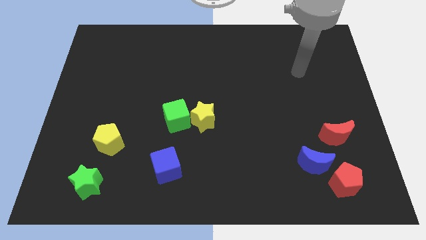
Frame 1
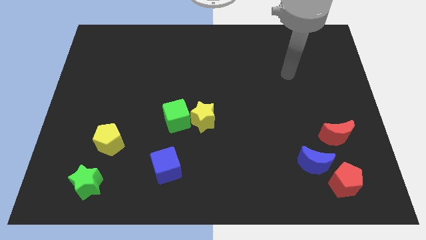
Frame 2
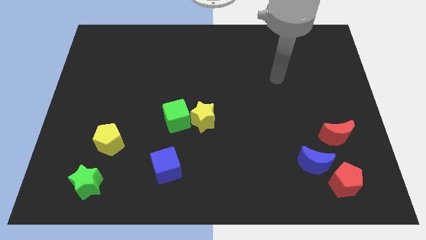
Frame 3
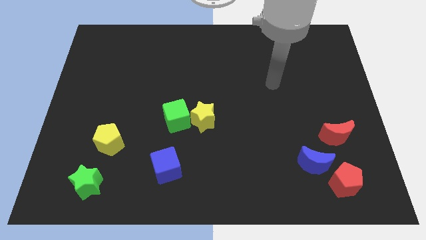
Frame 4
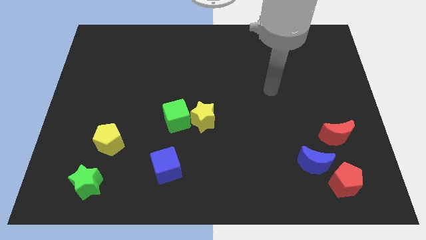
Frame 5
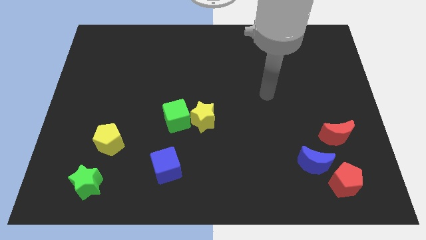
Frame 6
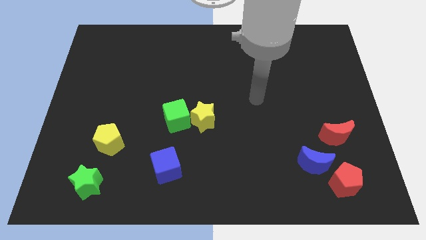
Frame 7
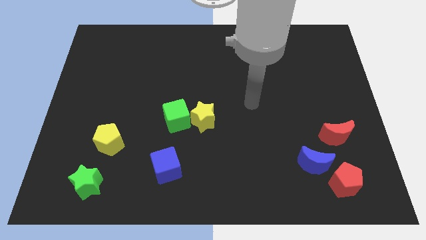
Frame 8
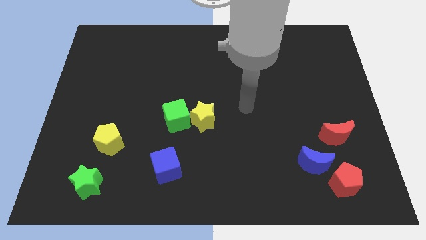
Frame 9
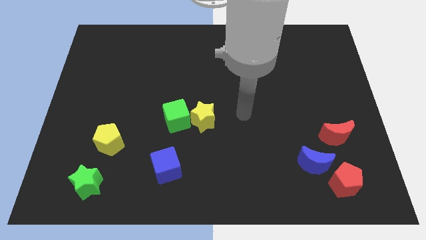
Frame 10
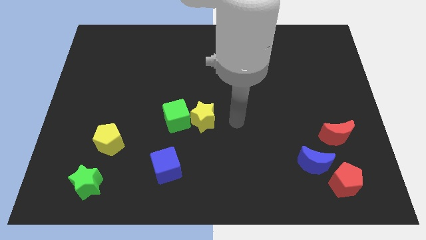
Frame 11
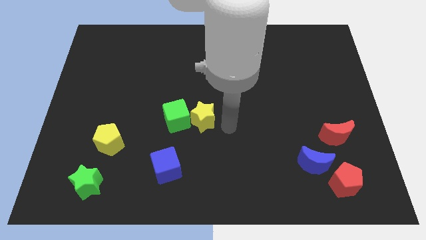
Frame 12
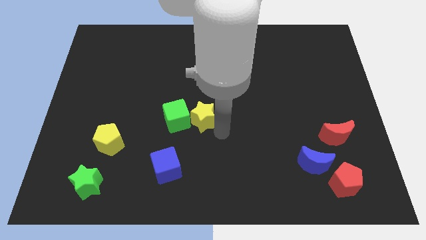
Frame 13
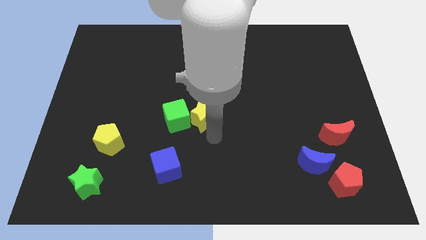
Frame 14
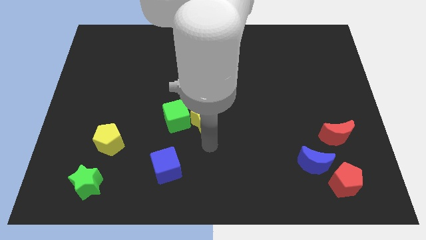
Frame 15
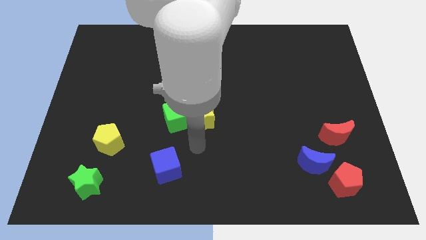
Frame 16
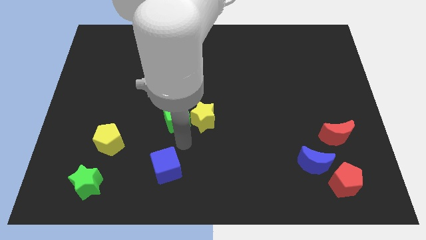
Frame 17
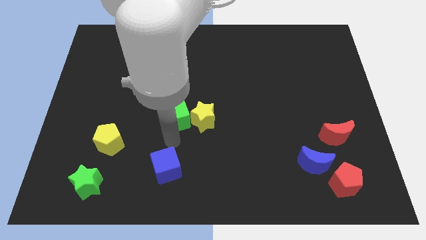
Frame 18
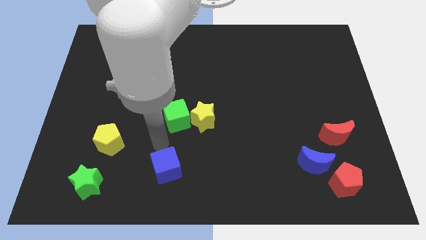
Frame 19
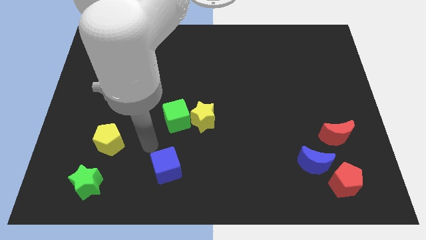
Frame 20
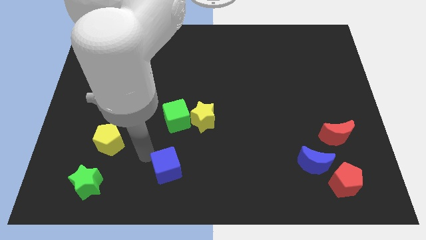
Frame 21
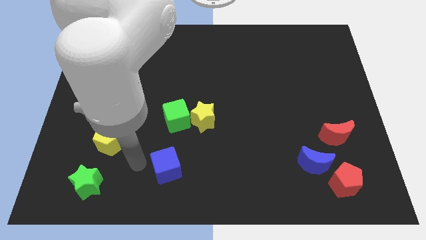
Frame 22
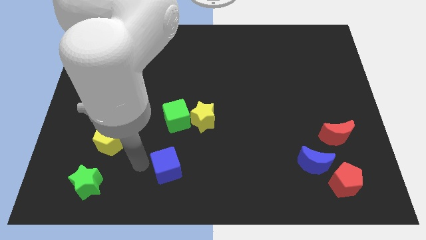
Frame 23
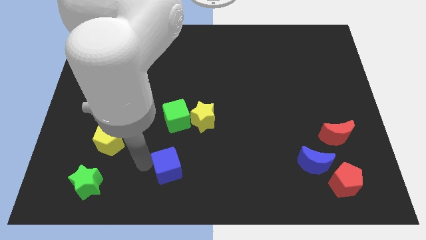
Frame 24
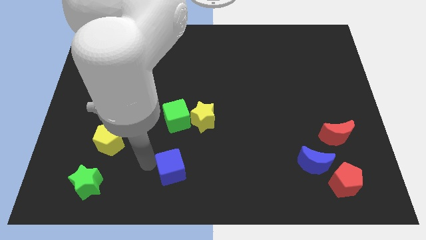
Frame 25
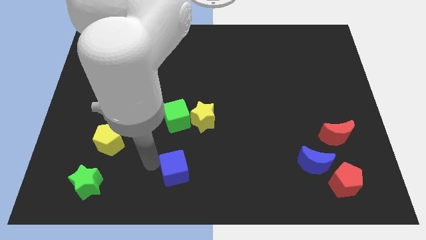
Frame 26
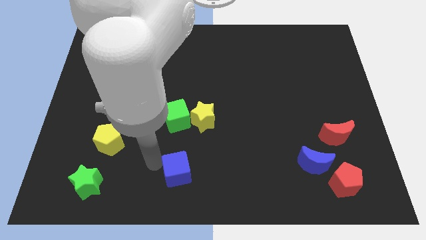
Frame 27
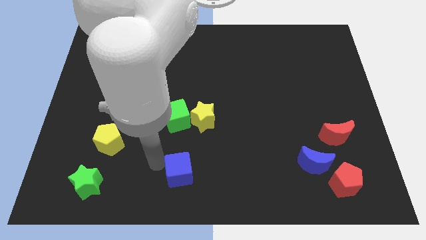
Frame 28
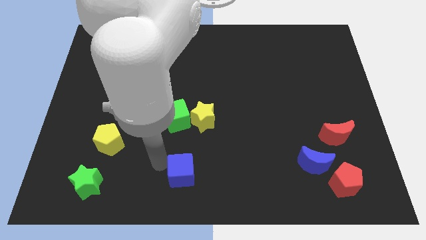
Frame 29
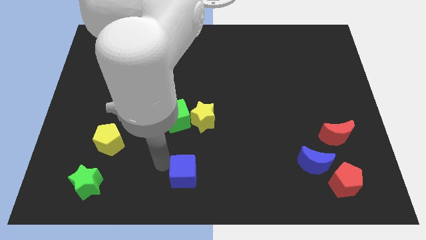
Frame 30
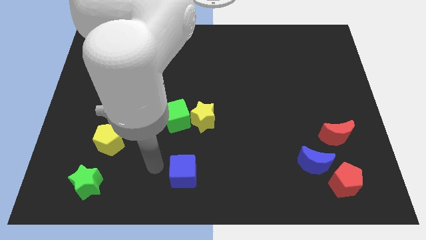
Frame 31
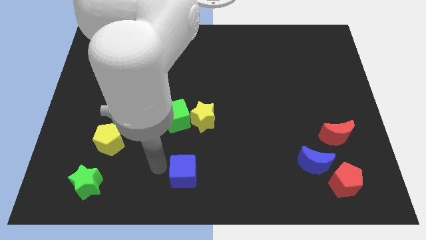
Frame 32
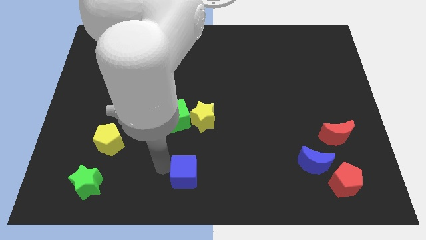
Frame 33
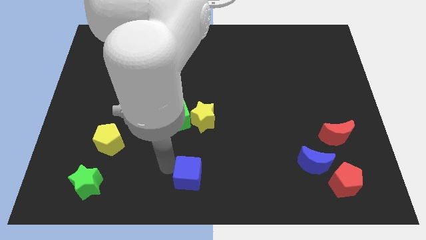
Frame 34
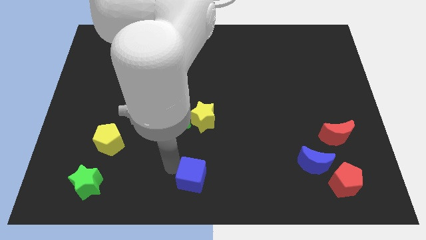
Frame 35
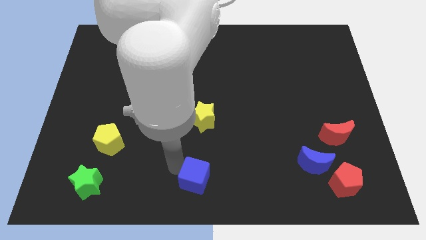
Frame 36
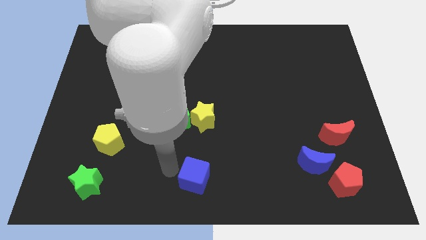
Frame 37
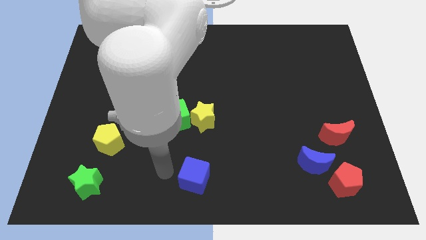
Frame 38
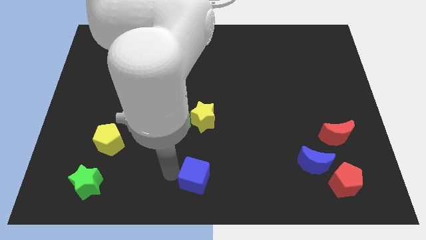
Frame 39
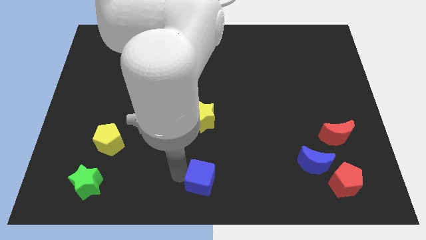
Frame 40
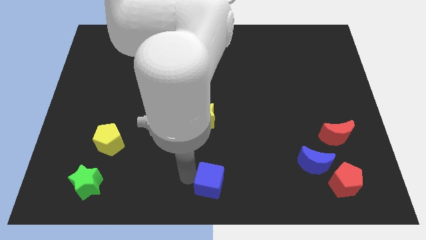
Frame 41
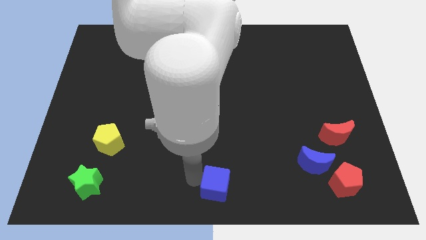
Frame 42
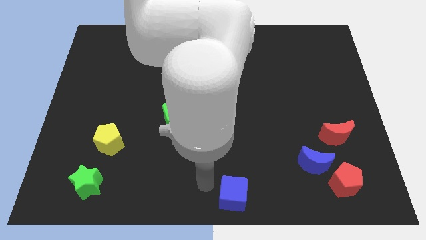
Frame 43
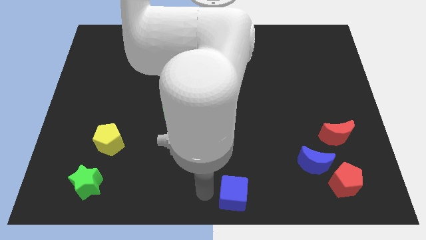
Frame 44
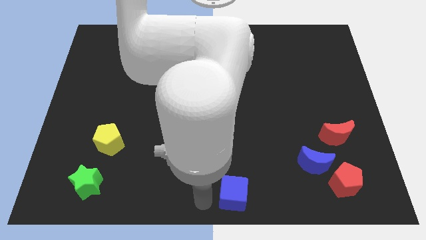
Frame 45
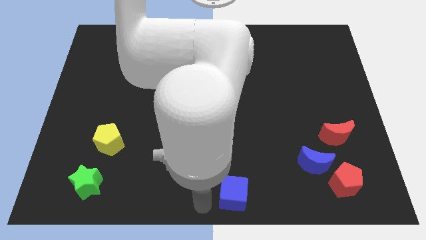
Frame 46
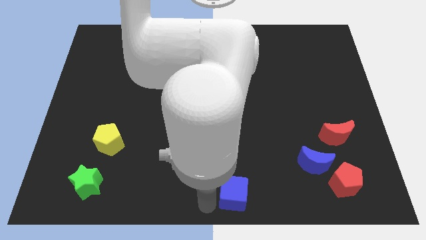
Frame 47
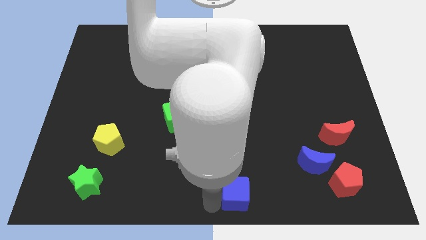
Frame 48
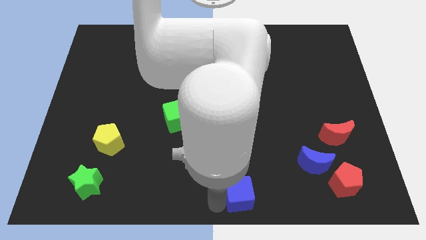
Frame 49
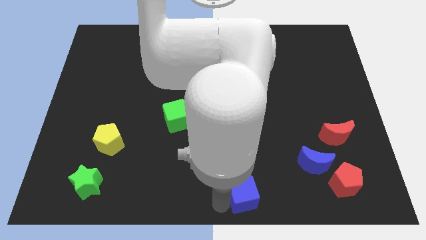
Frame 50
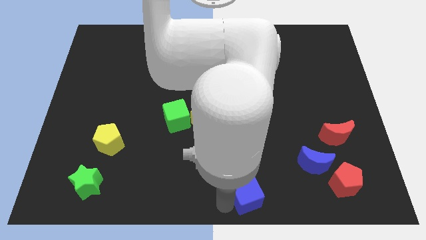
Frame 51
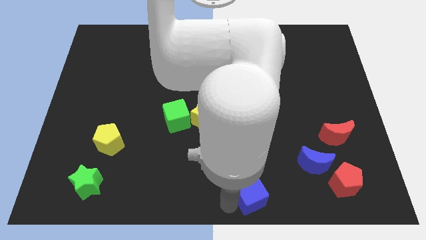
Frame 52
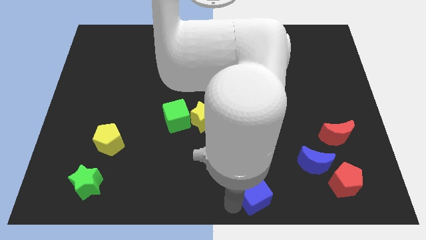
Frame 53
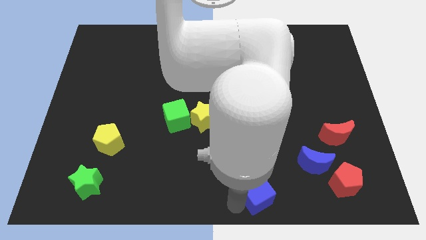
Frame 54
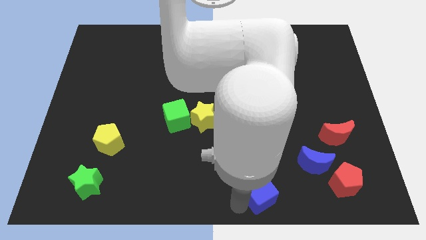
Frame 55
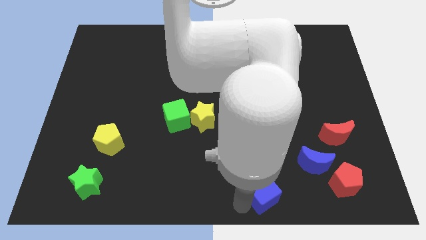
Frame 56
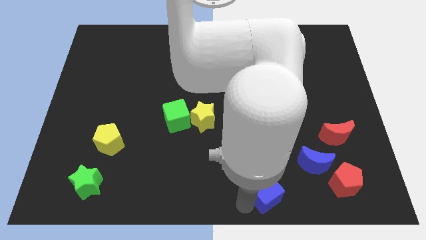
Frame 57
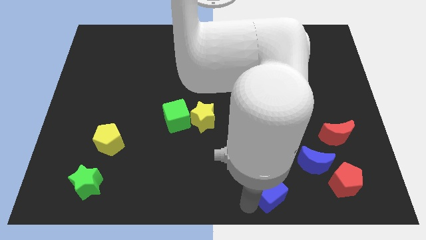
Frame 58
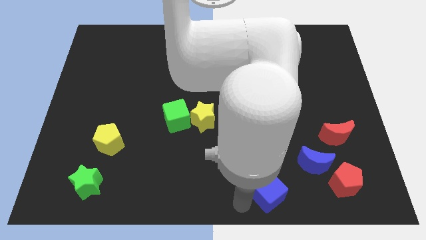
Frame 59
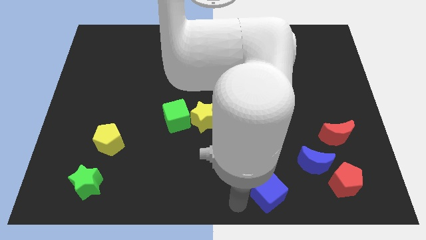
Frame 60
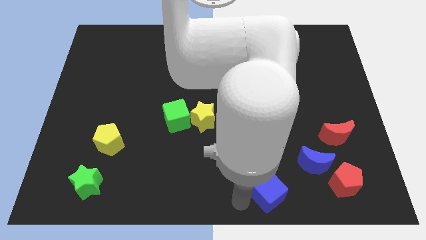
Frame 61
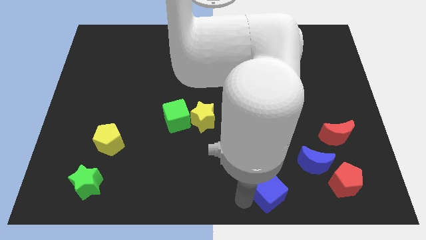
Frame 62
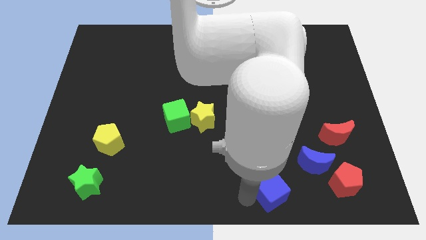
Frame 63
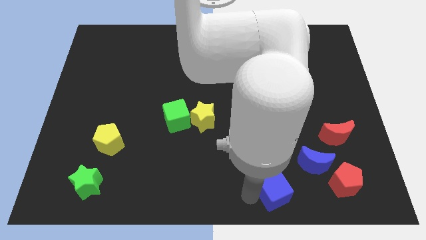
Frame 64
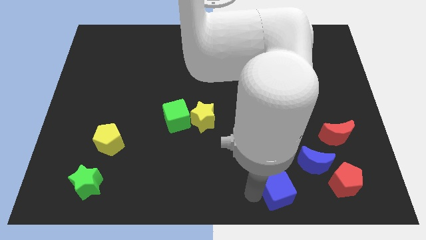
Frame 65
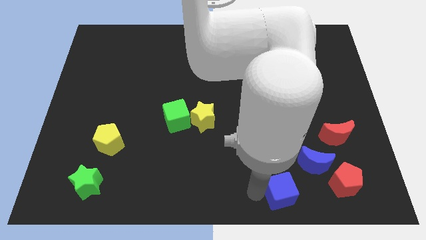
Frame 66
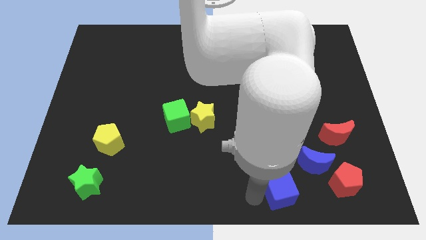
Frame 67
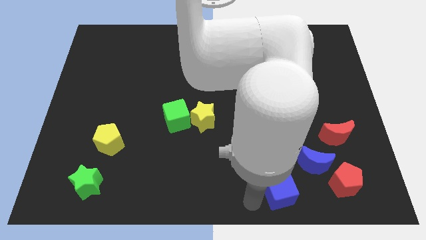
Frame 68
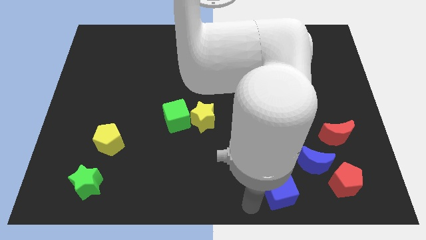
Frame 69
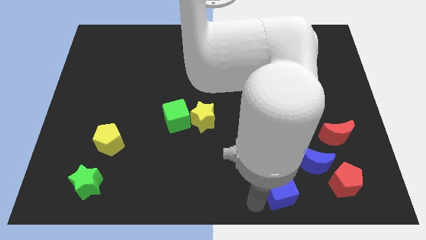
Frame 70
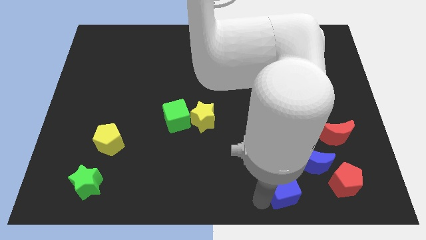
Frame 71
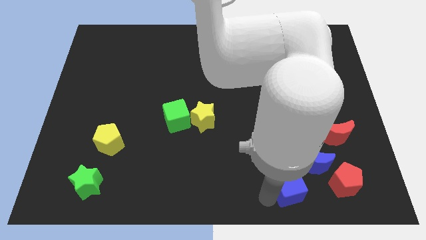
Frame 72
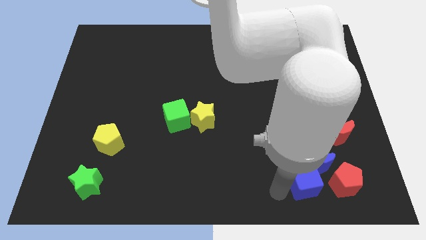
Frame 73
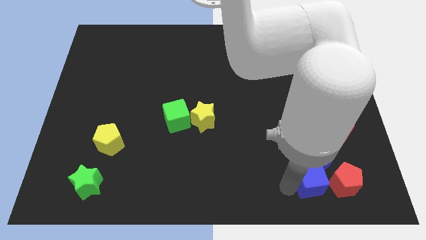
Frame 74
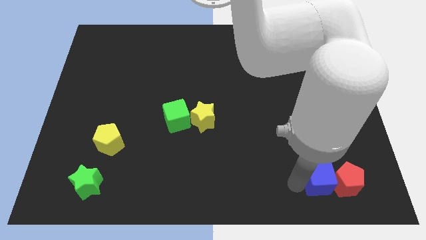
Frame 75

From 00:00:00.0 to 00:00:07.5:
push the blue cube to the red pentagon
